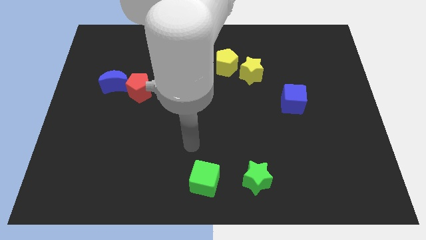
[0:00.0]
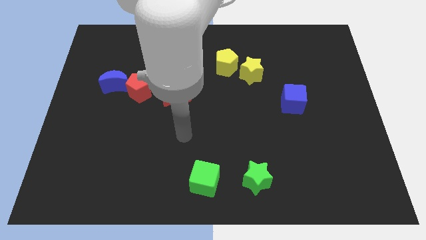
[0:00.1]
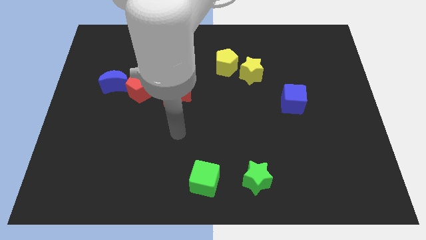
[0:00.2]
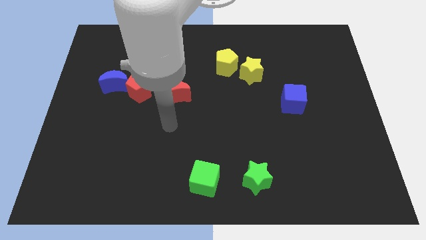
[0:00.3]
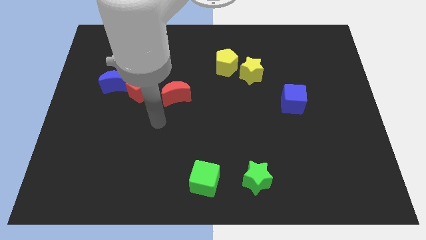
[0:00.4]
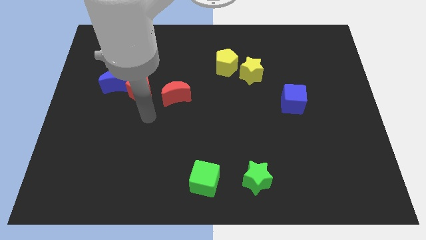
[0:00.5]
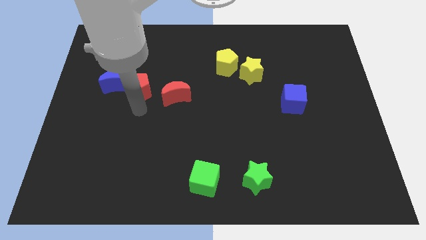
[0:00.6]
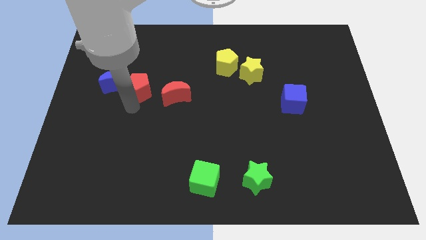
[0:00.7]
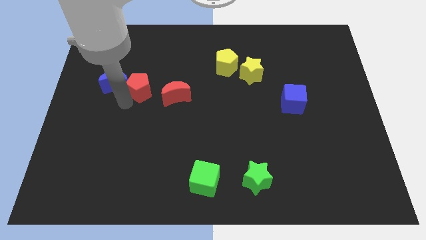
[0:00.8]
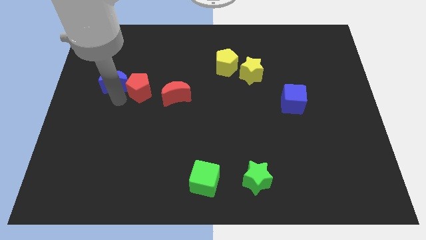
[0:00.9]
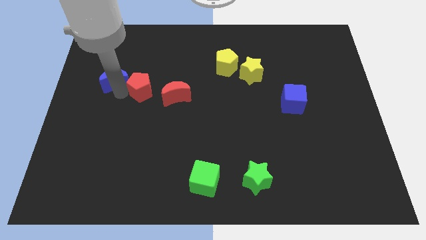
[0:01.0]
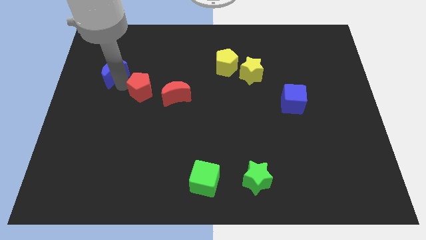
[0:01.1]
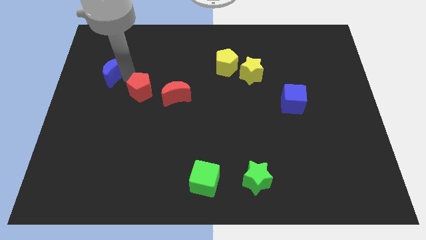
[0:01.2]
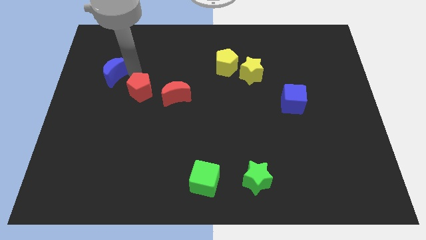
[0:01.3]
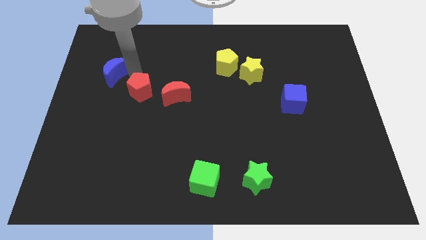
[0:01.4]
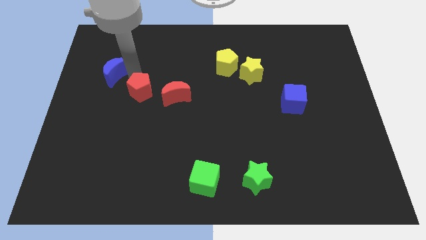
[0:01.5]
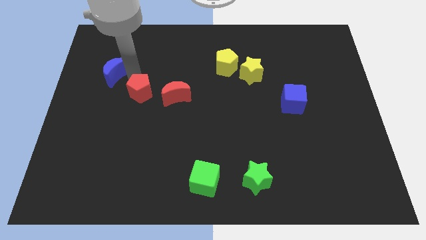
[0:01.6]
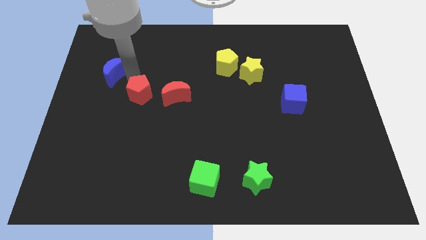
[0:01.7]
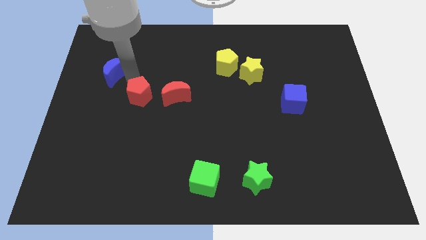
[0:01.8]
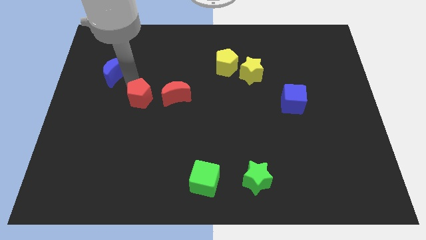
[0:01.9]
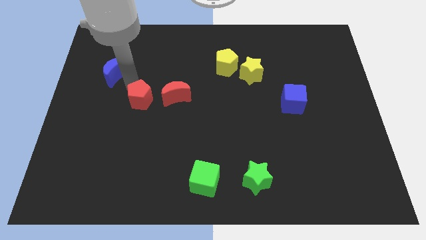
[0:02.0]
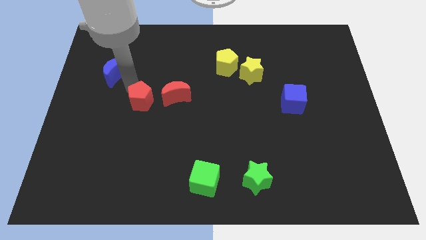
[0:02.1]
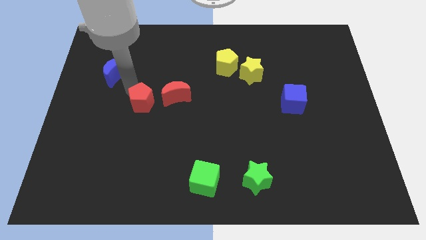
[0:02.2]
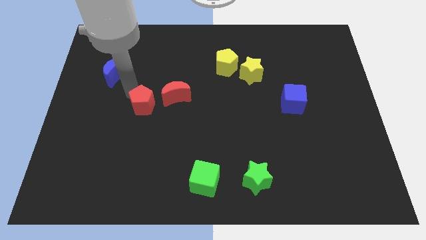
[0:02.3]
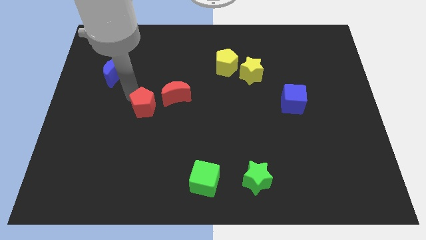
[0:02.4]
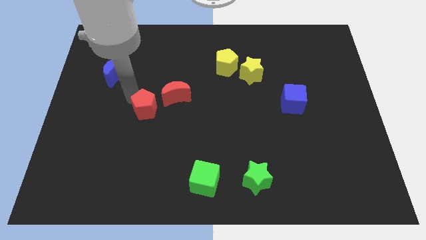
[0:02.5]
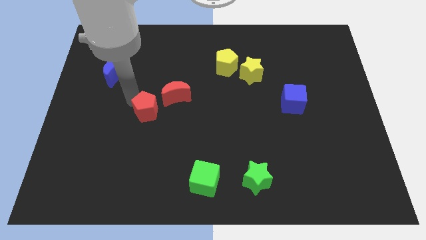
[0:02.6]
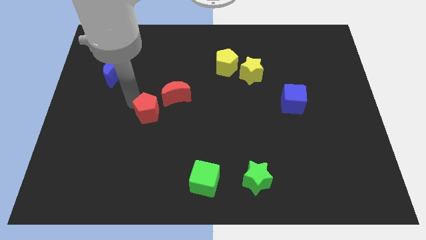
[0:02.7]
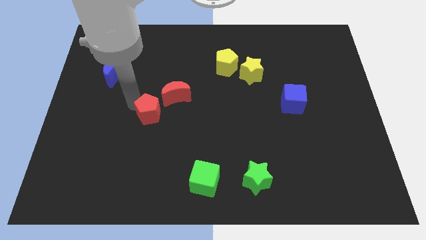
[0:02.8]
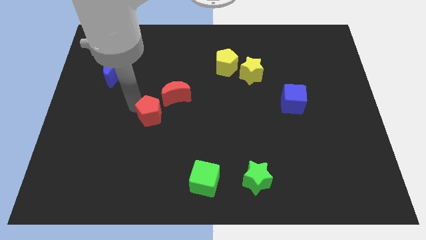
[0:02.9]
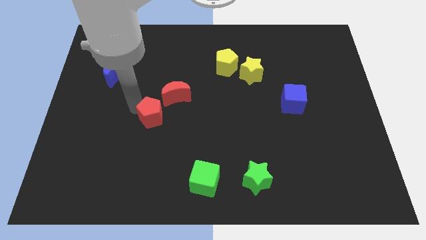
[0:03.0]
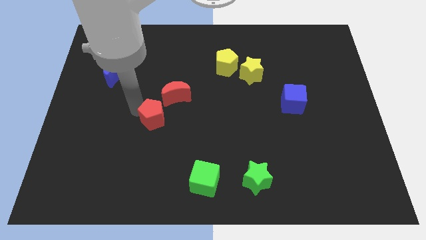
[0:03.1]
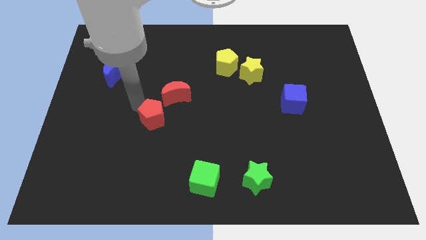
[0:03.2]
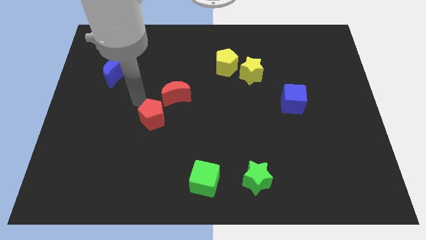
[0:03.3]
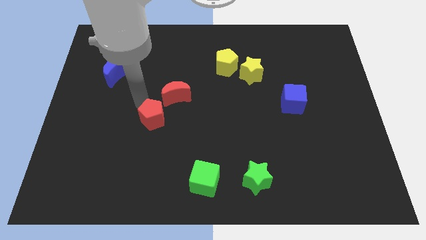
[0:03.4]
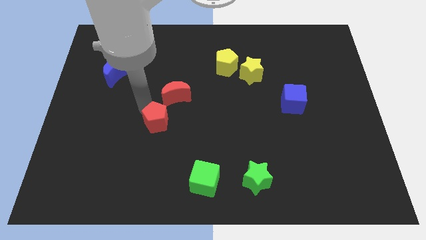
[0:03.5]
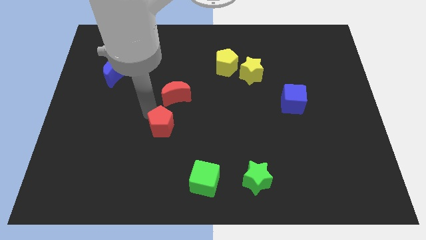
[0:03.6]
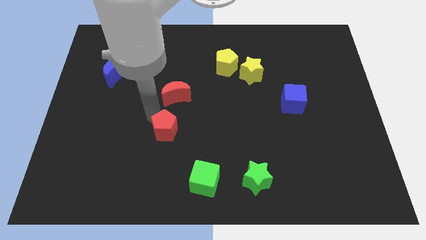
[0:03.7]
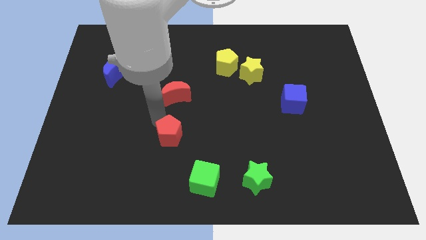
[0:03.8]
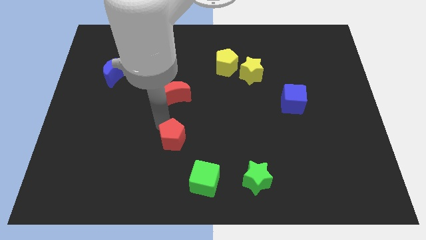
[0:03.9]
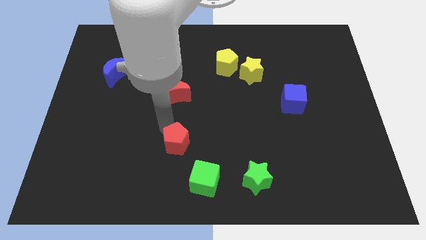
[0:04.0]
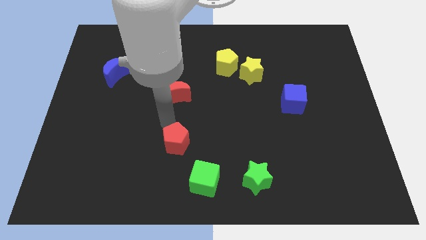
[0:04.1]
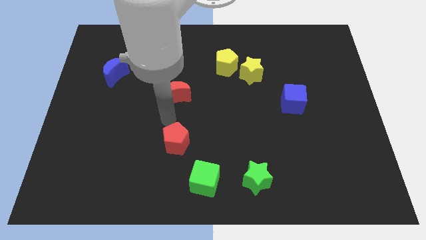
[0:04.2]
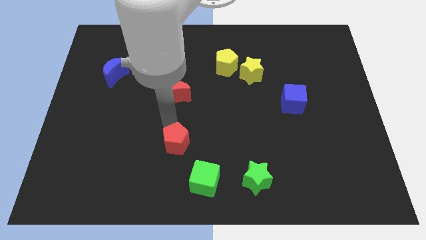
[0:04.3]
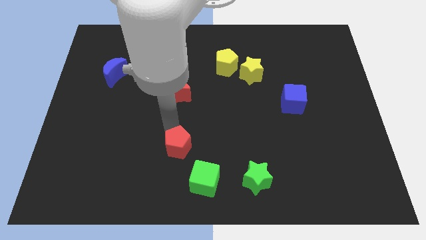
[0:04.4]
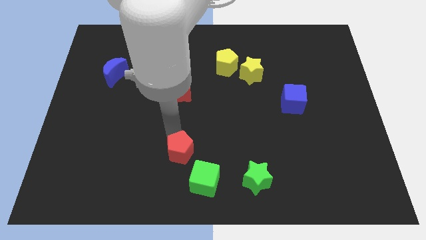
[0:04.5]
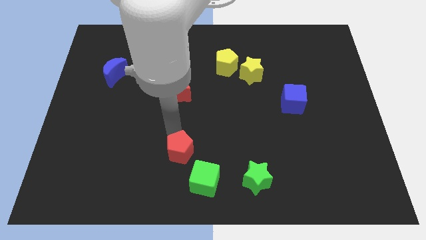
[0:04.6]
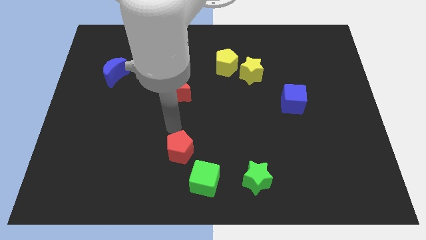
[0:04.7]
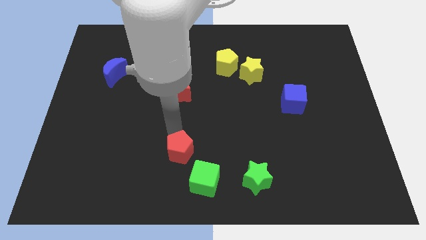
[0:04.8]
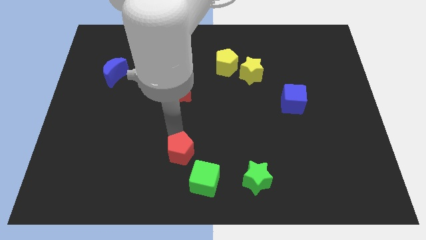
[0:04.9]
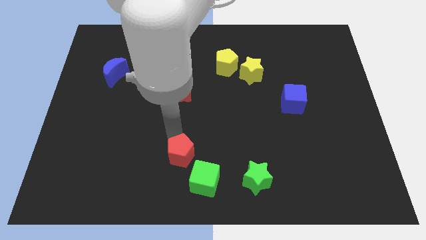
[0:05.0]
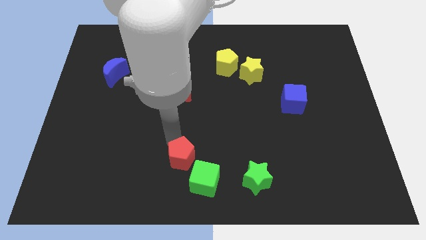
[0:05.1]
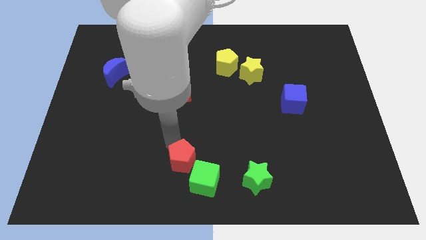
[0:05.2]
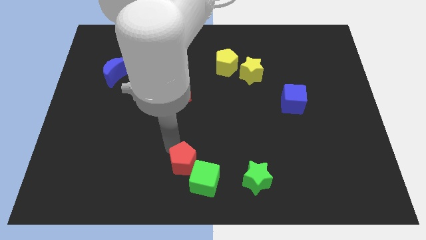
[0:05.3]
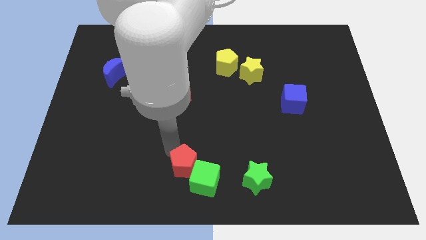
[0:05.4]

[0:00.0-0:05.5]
push the red pentagon close to the green cube

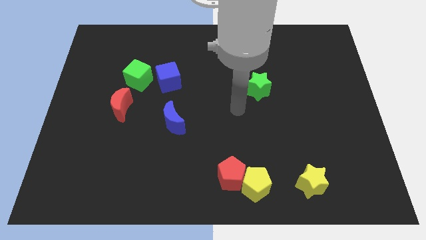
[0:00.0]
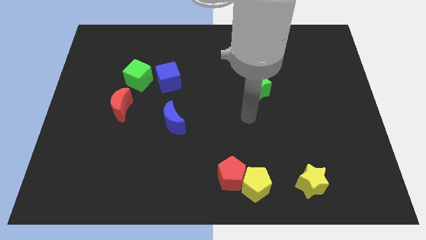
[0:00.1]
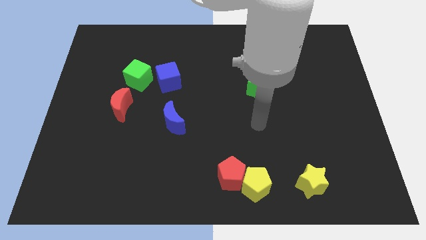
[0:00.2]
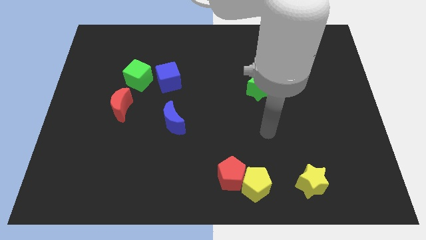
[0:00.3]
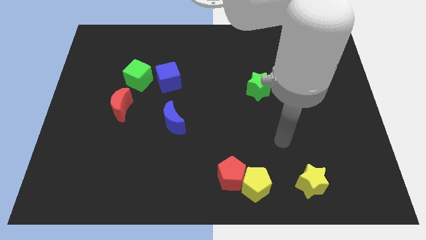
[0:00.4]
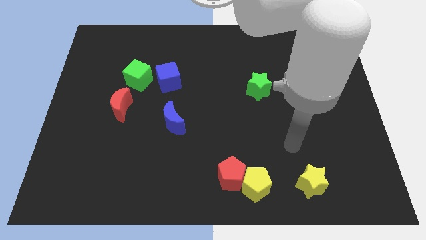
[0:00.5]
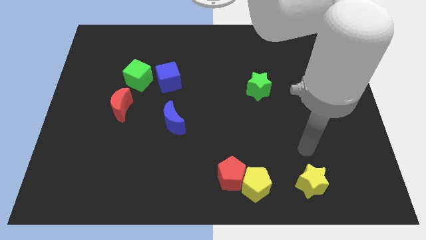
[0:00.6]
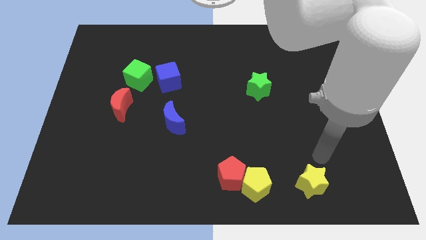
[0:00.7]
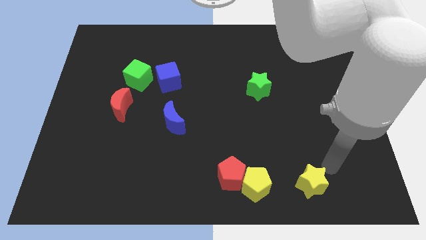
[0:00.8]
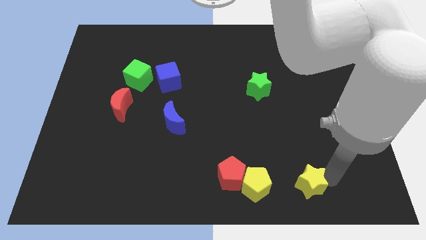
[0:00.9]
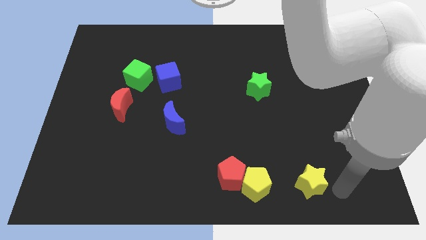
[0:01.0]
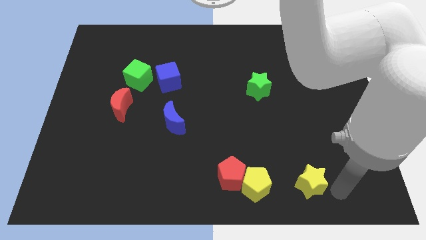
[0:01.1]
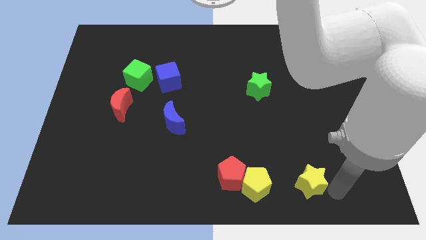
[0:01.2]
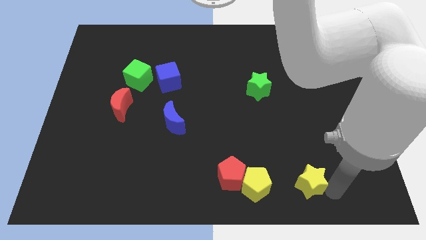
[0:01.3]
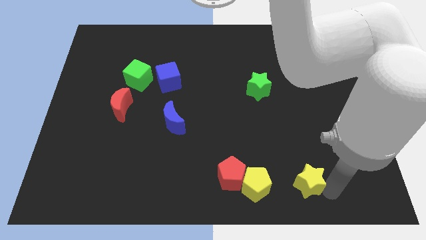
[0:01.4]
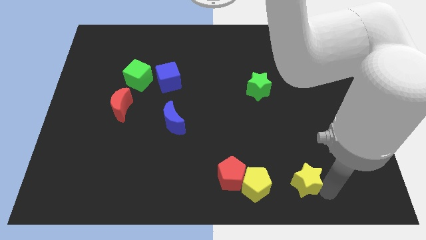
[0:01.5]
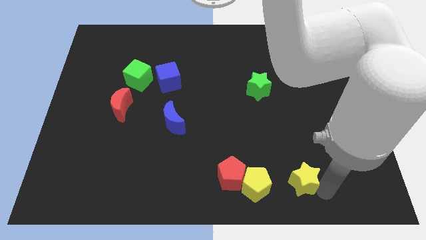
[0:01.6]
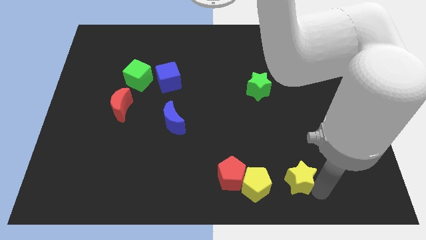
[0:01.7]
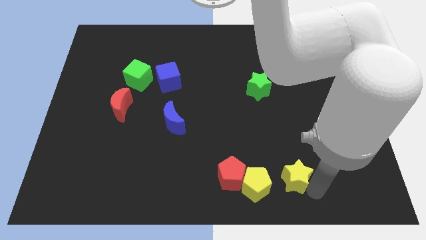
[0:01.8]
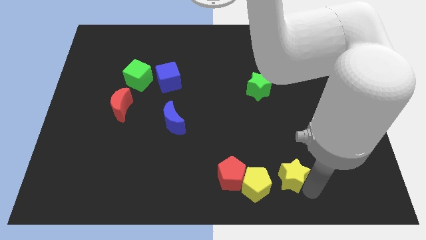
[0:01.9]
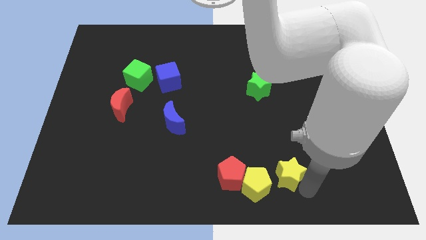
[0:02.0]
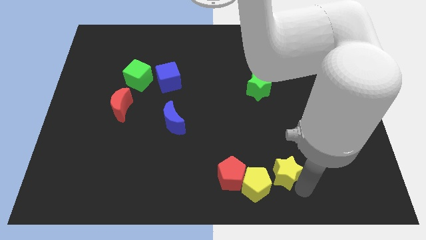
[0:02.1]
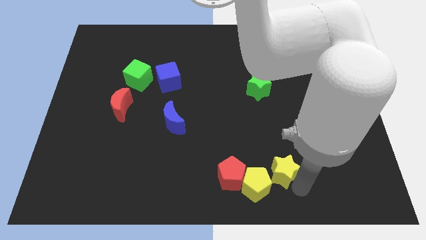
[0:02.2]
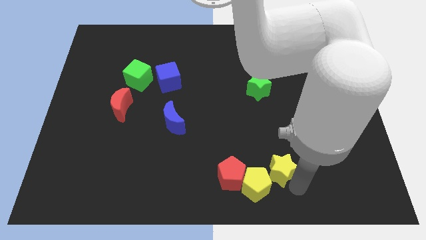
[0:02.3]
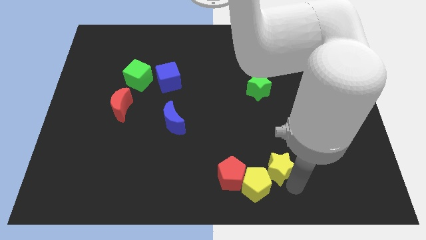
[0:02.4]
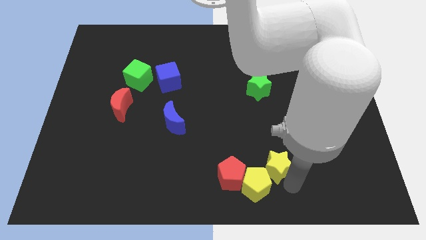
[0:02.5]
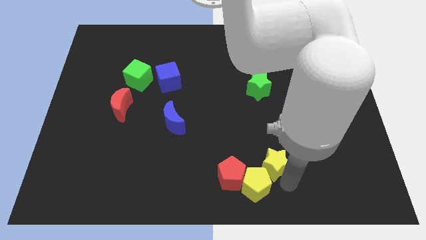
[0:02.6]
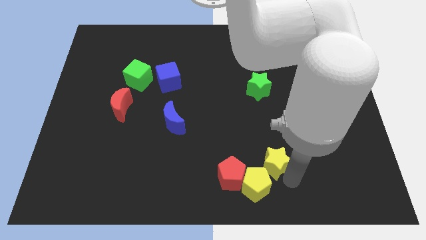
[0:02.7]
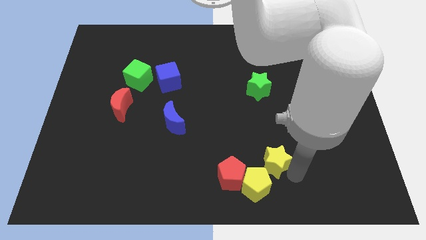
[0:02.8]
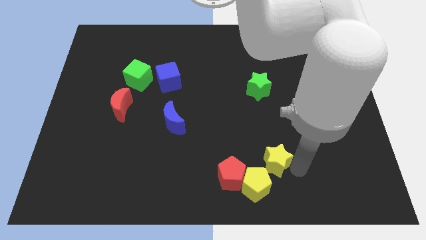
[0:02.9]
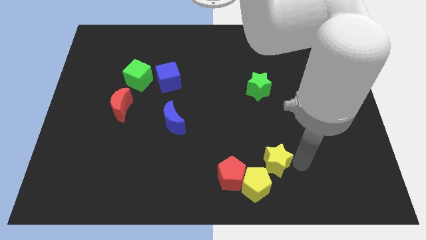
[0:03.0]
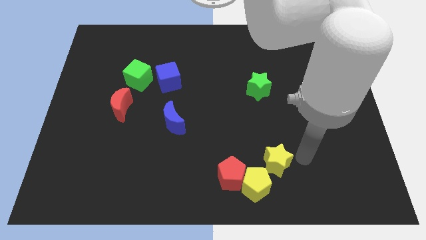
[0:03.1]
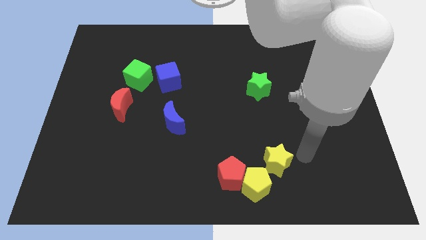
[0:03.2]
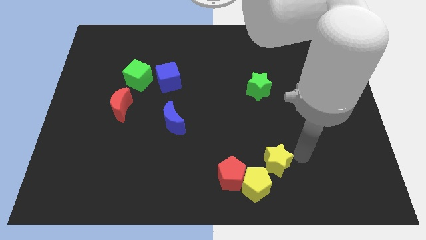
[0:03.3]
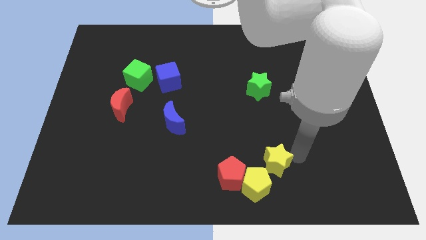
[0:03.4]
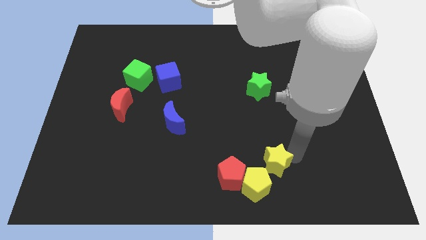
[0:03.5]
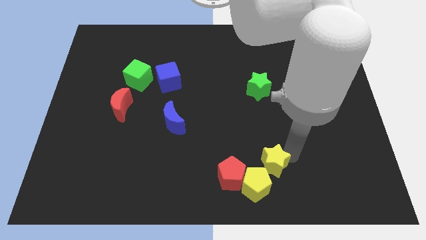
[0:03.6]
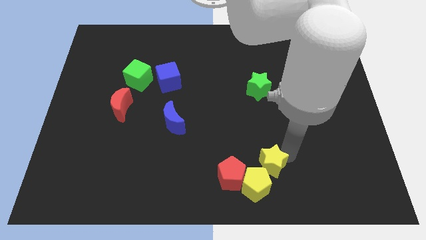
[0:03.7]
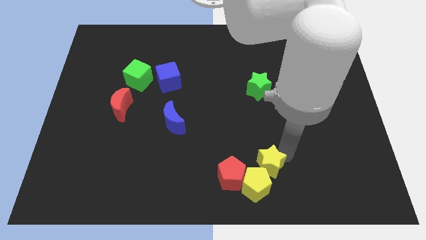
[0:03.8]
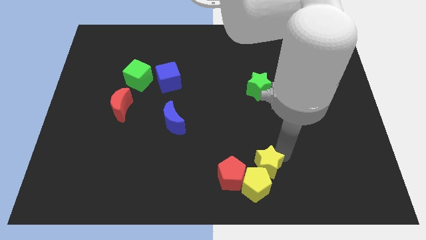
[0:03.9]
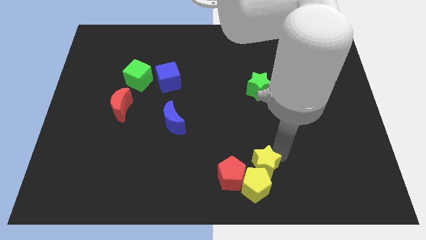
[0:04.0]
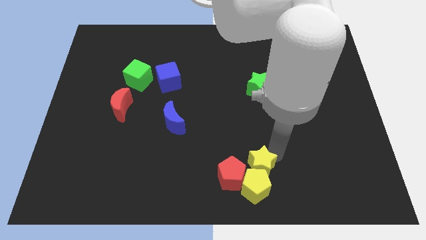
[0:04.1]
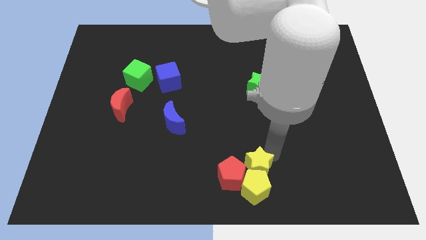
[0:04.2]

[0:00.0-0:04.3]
slide the yellow star close to the red pentagon
